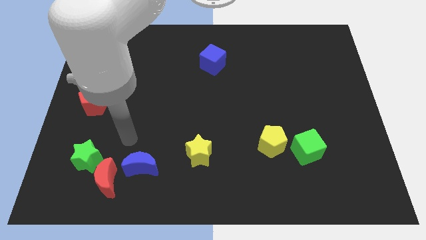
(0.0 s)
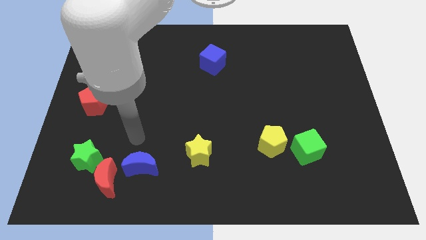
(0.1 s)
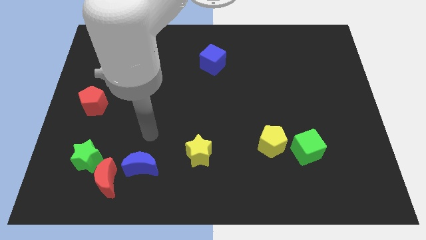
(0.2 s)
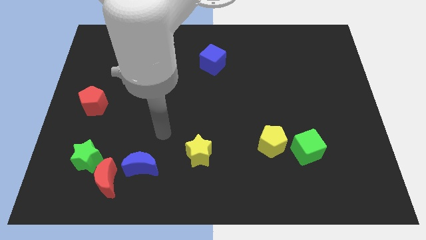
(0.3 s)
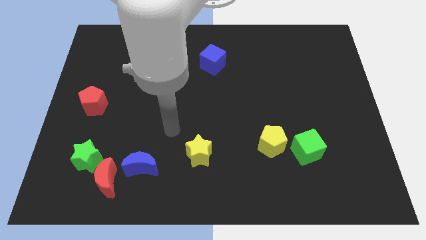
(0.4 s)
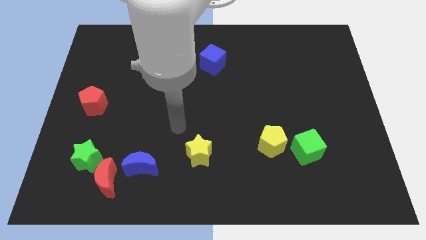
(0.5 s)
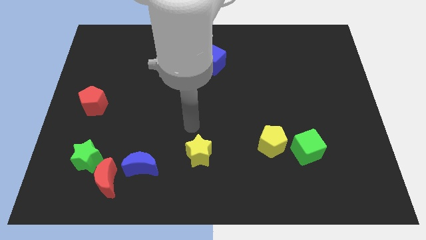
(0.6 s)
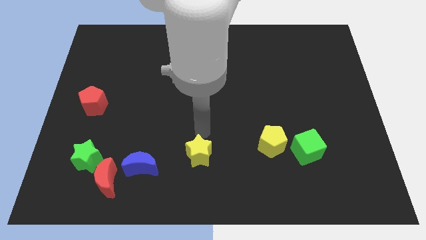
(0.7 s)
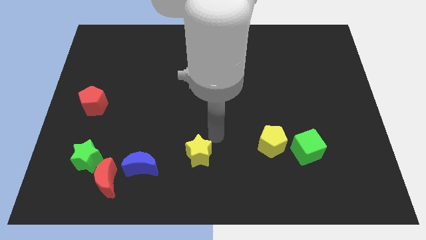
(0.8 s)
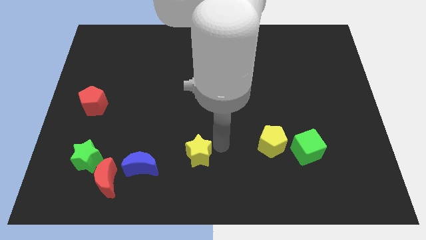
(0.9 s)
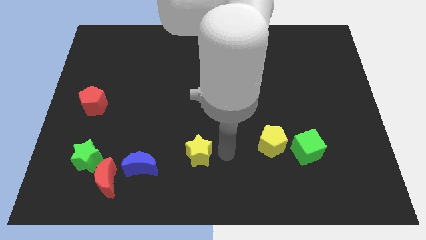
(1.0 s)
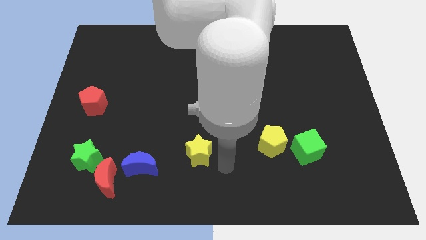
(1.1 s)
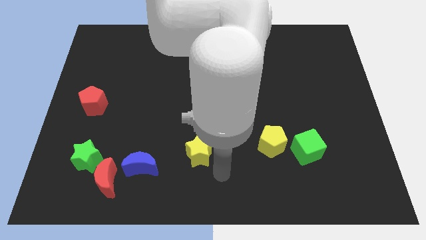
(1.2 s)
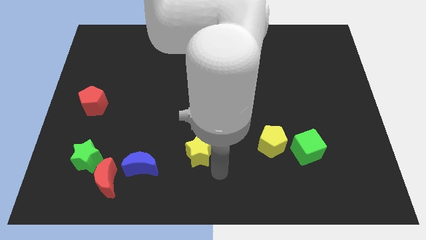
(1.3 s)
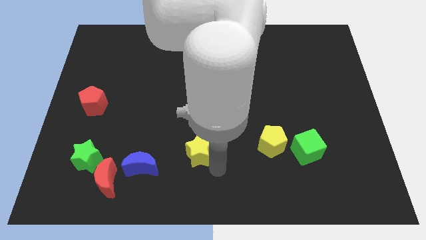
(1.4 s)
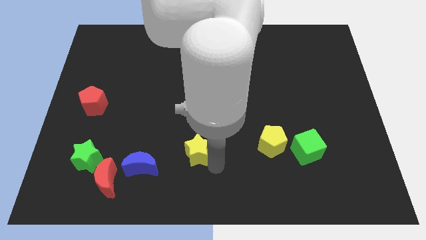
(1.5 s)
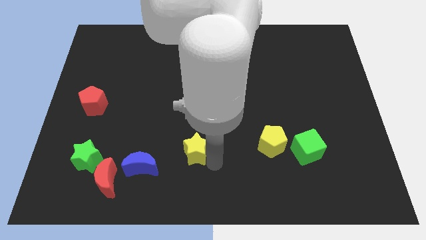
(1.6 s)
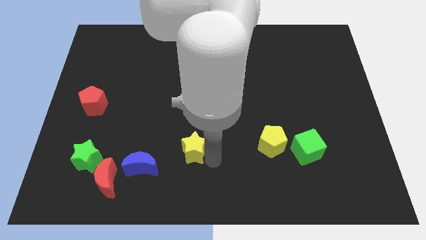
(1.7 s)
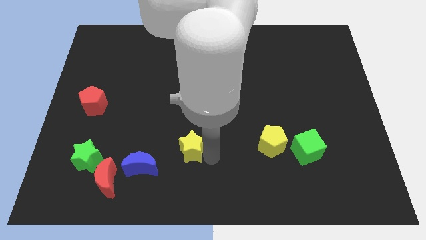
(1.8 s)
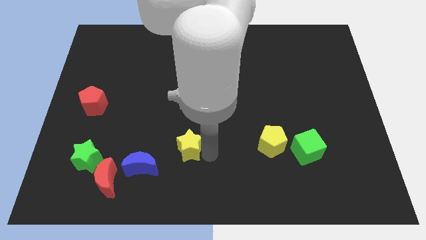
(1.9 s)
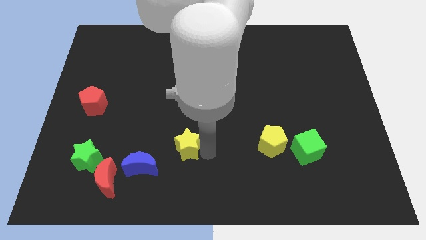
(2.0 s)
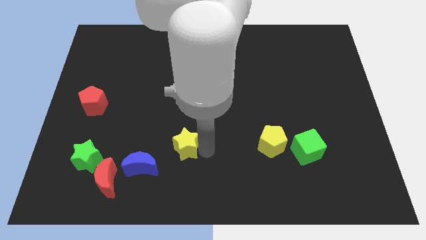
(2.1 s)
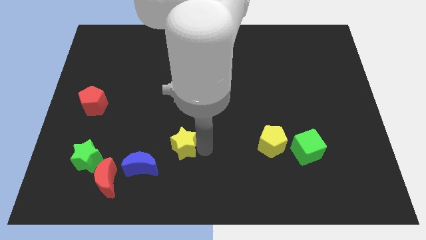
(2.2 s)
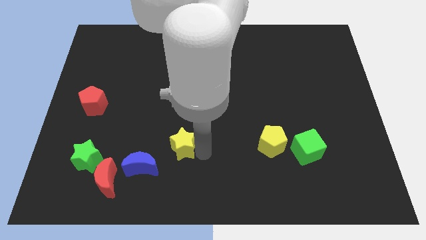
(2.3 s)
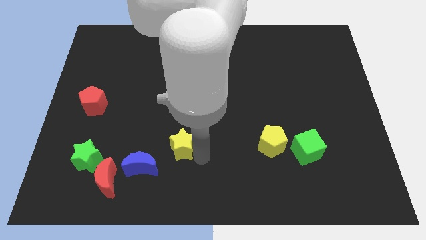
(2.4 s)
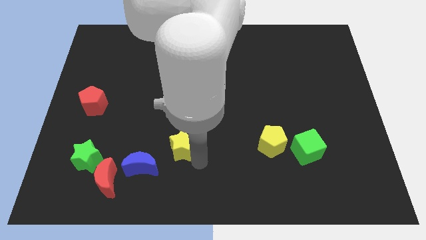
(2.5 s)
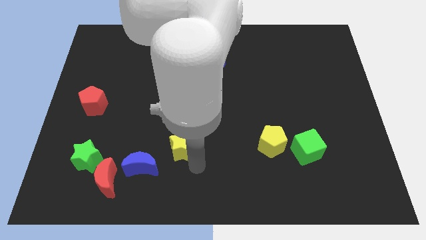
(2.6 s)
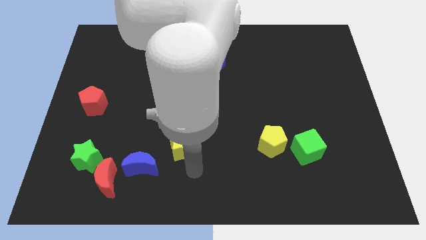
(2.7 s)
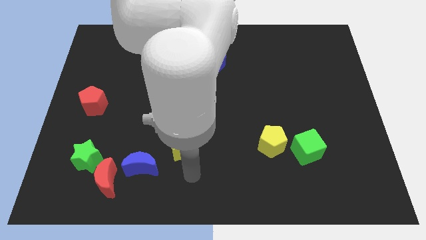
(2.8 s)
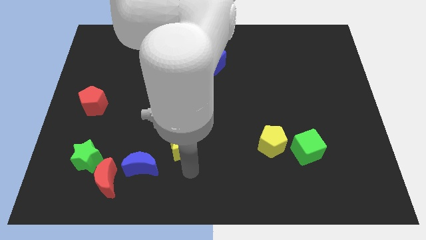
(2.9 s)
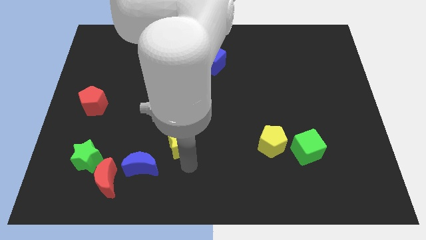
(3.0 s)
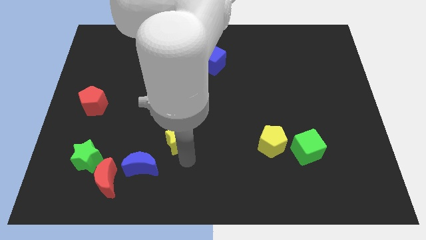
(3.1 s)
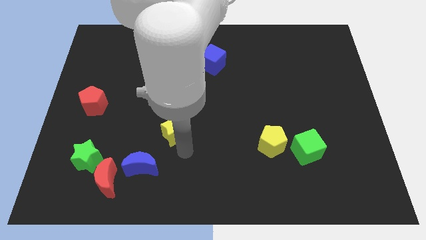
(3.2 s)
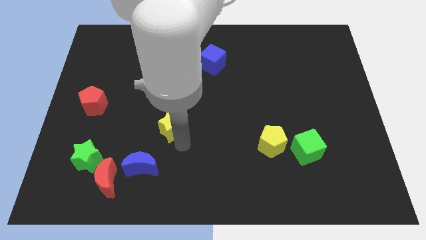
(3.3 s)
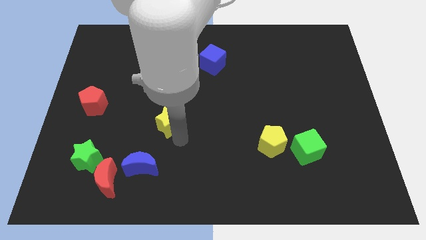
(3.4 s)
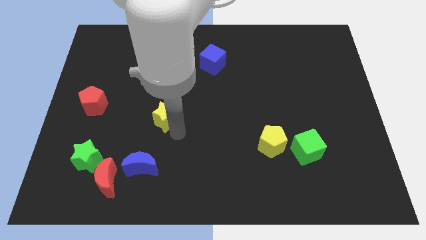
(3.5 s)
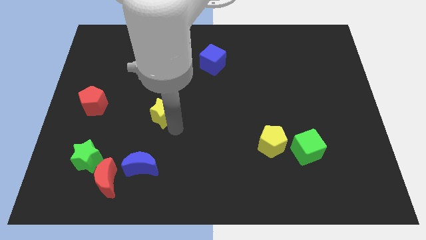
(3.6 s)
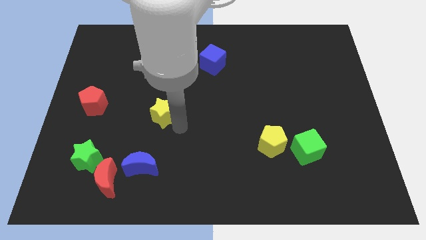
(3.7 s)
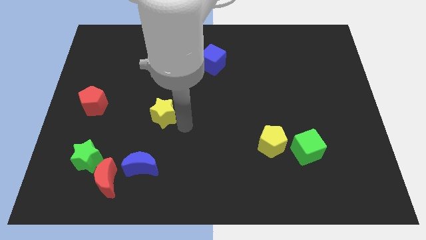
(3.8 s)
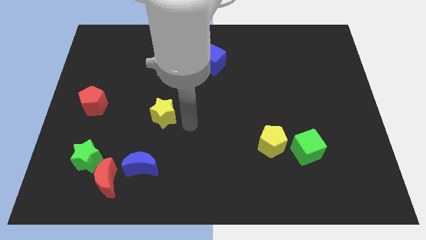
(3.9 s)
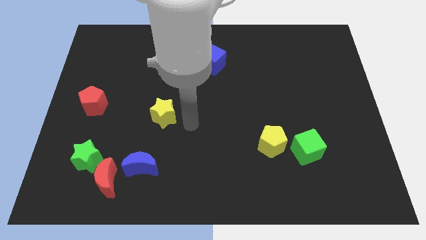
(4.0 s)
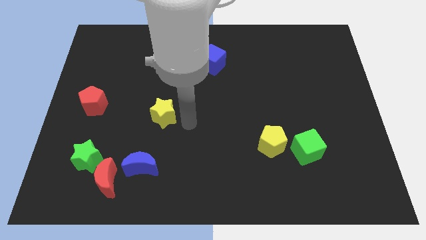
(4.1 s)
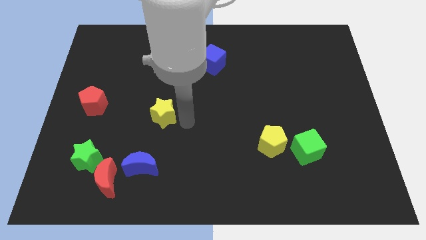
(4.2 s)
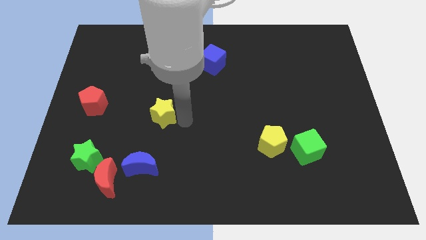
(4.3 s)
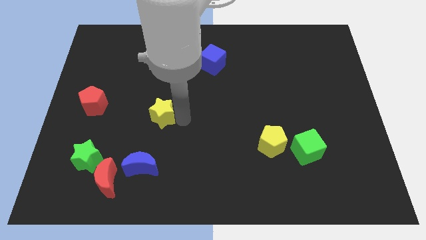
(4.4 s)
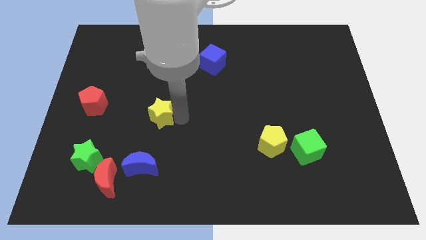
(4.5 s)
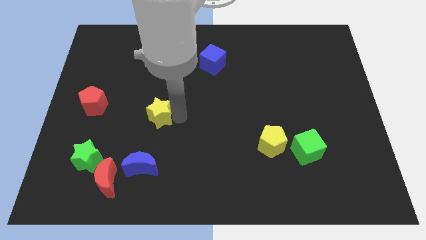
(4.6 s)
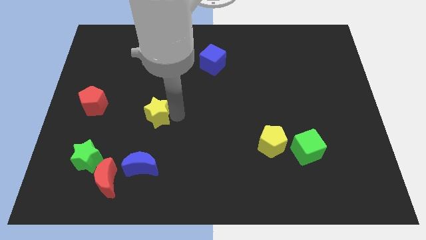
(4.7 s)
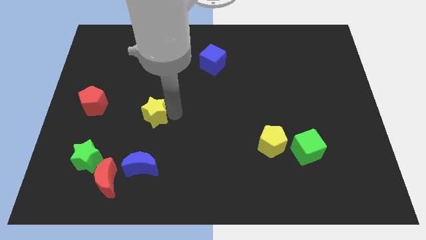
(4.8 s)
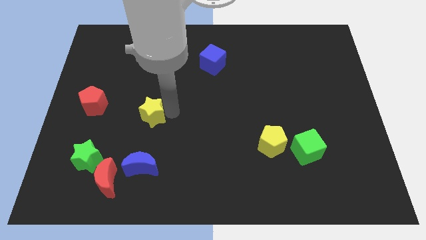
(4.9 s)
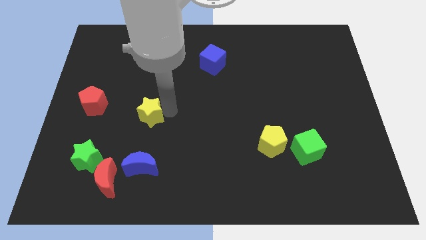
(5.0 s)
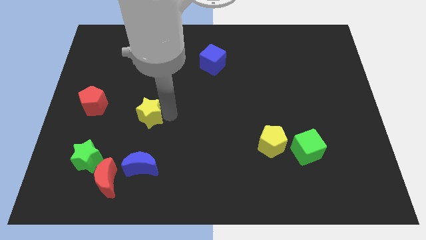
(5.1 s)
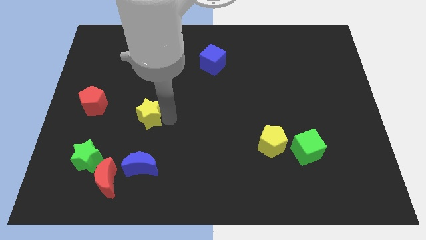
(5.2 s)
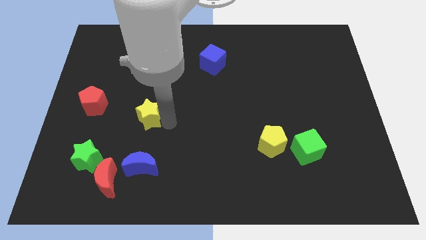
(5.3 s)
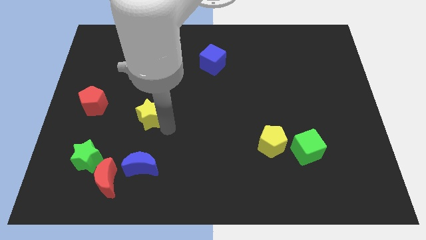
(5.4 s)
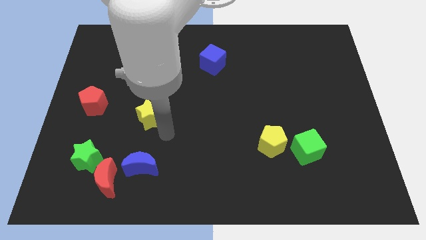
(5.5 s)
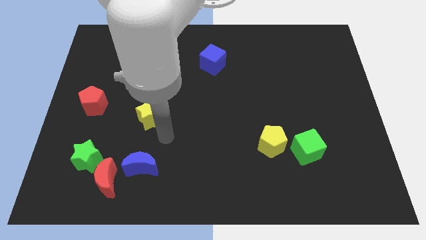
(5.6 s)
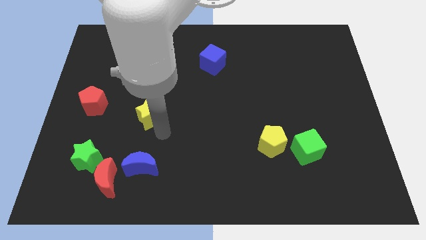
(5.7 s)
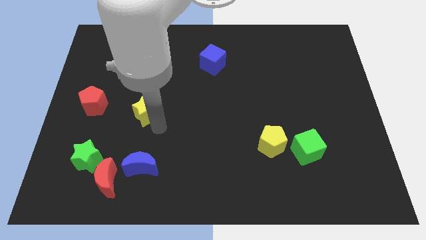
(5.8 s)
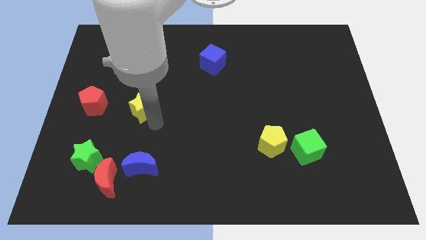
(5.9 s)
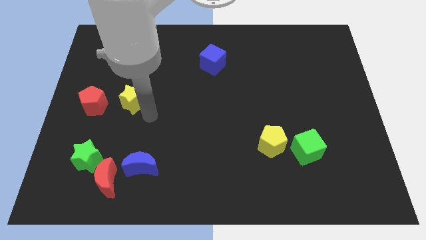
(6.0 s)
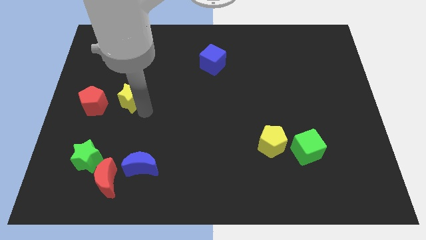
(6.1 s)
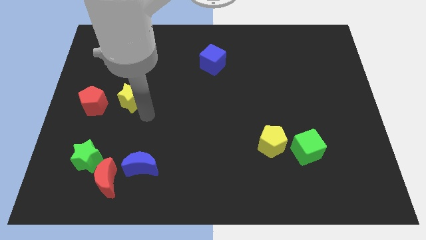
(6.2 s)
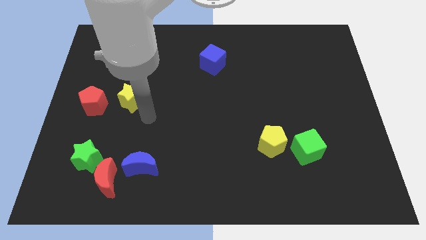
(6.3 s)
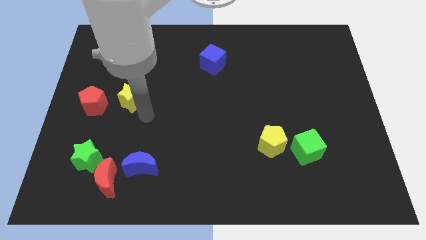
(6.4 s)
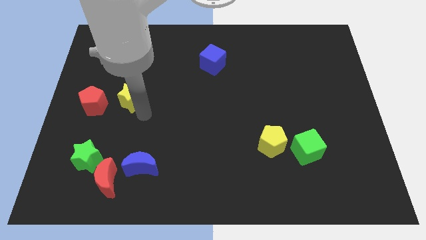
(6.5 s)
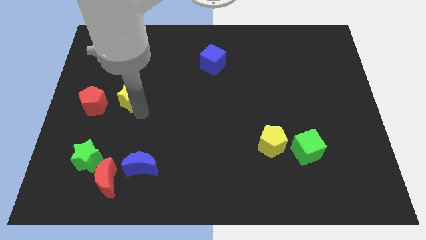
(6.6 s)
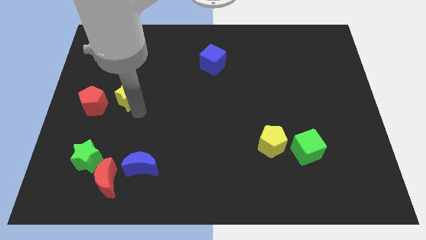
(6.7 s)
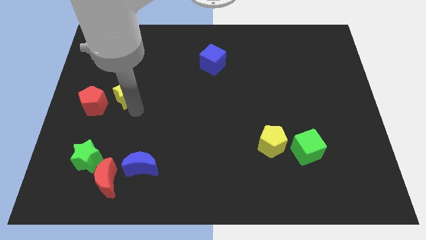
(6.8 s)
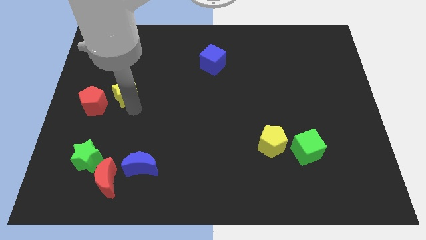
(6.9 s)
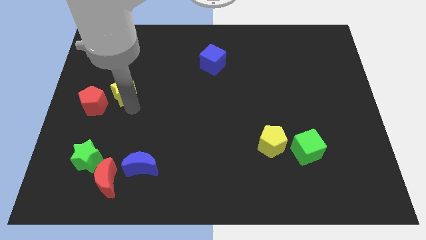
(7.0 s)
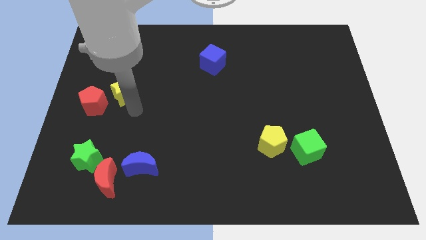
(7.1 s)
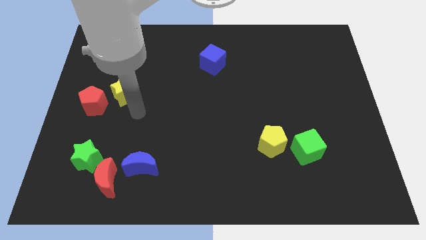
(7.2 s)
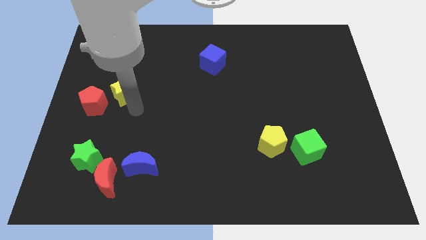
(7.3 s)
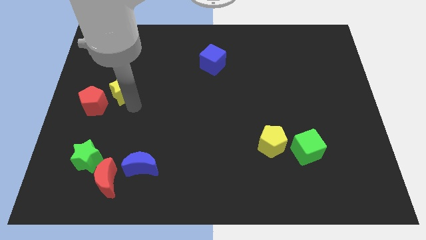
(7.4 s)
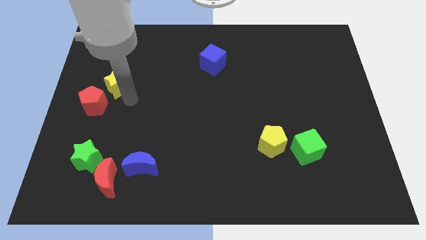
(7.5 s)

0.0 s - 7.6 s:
put the yellow star to the top side of the red pentagon
